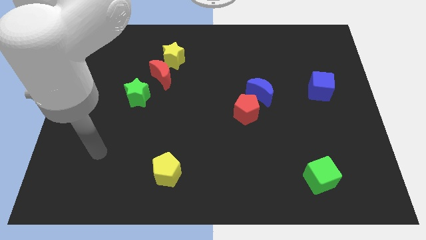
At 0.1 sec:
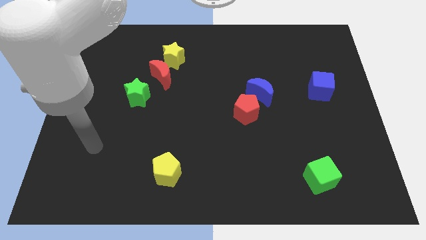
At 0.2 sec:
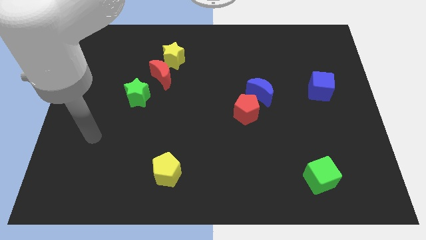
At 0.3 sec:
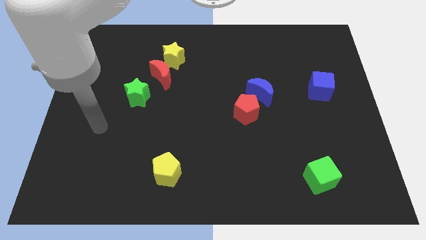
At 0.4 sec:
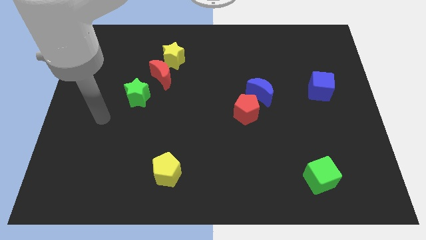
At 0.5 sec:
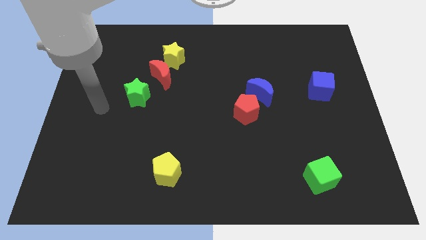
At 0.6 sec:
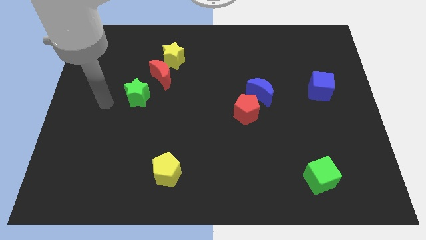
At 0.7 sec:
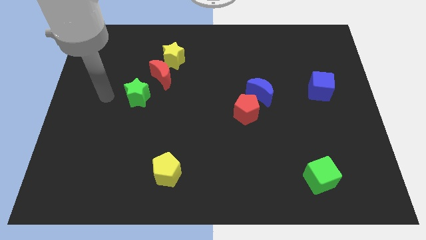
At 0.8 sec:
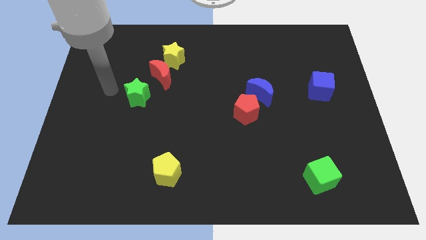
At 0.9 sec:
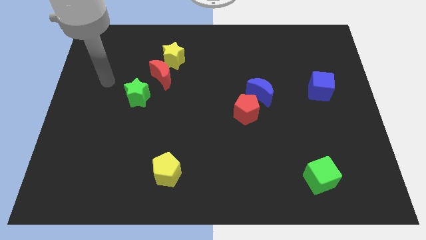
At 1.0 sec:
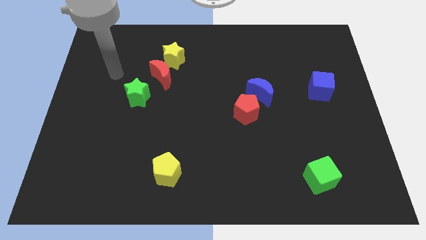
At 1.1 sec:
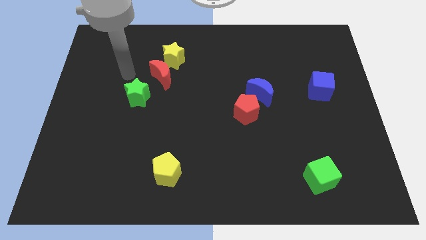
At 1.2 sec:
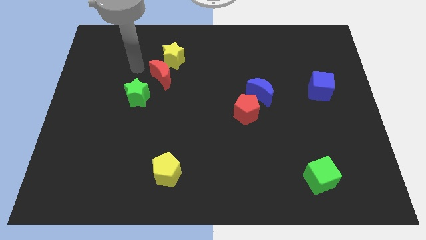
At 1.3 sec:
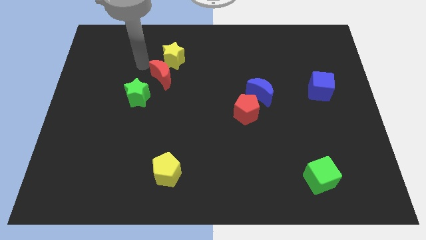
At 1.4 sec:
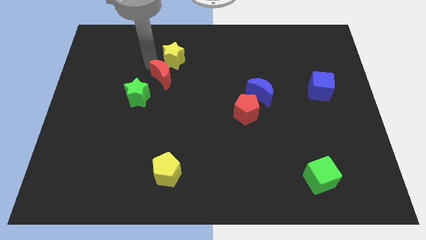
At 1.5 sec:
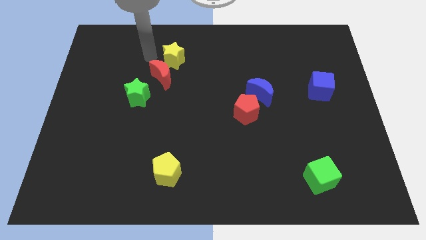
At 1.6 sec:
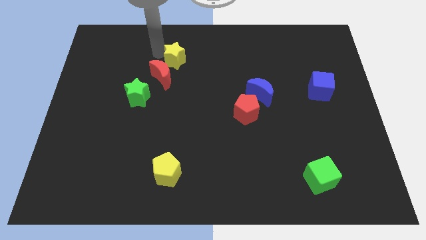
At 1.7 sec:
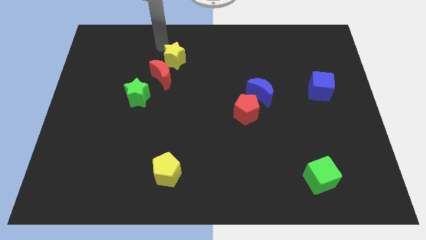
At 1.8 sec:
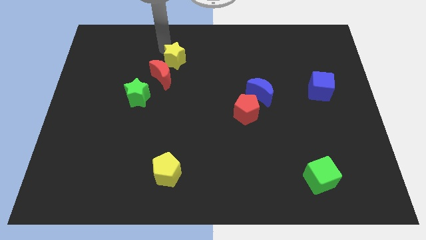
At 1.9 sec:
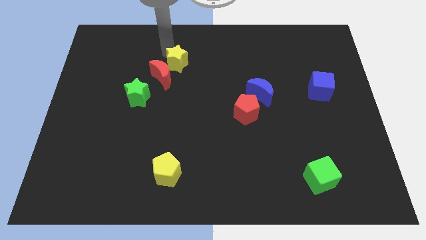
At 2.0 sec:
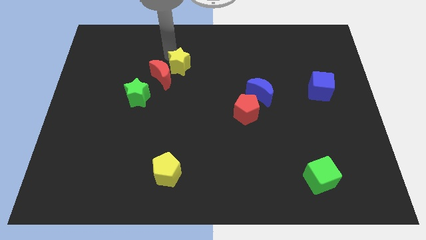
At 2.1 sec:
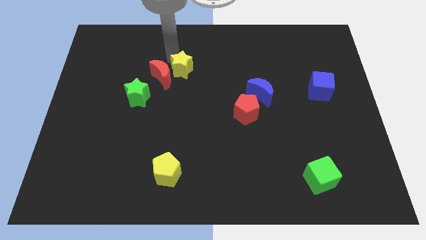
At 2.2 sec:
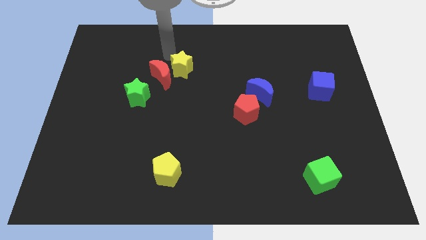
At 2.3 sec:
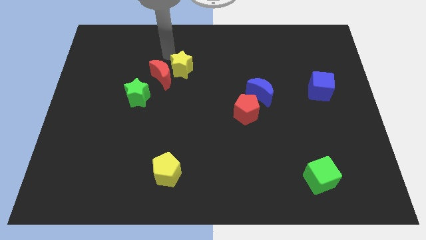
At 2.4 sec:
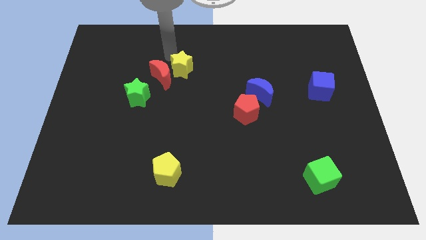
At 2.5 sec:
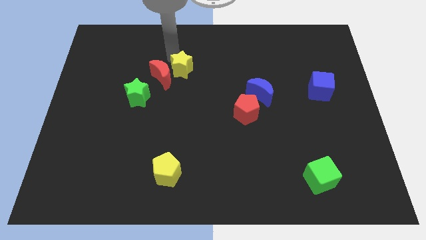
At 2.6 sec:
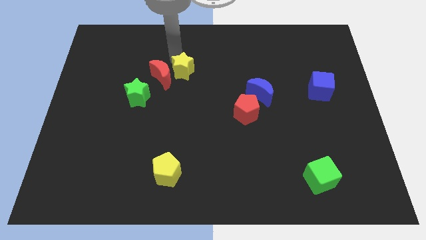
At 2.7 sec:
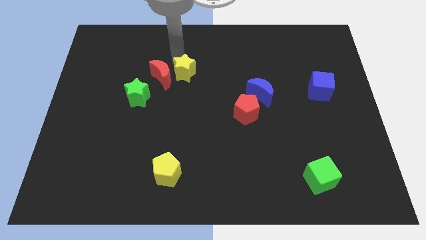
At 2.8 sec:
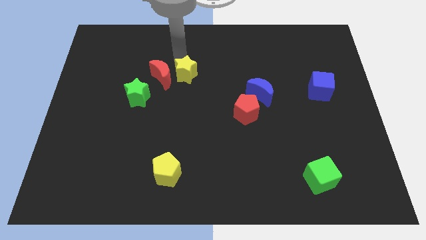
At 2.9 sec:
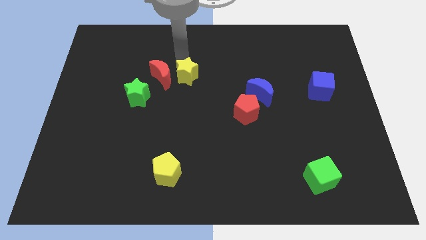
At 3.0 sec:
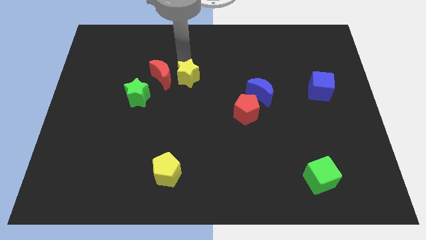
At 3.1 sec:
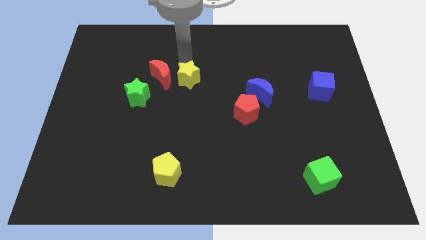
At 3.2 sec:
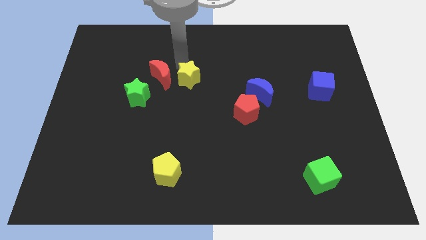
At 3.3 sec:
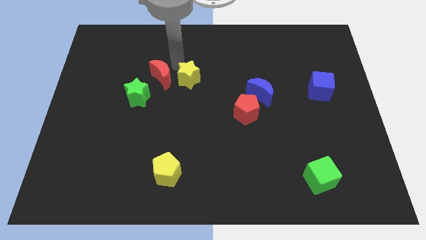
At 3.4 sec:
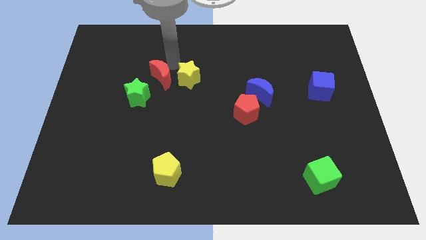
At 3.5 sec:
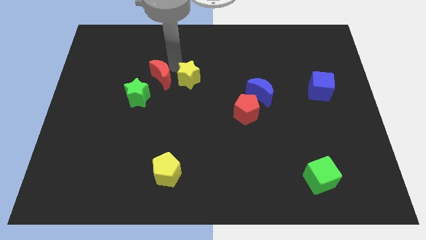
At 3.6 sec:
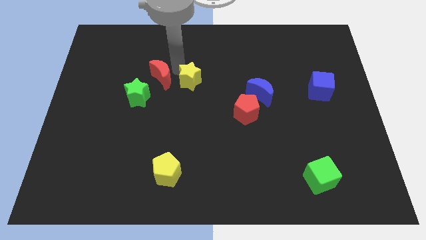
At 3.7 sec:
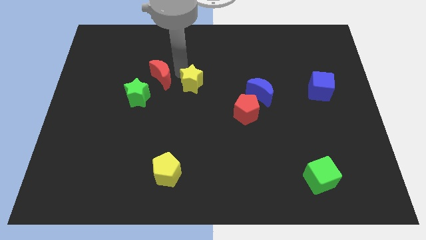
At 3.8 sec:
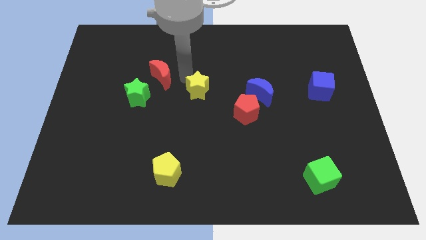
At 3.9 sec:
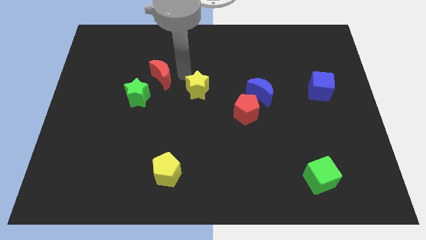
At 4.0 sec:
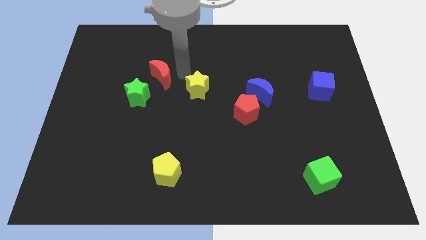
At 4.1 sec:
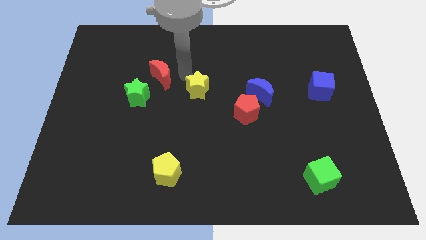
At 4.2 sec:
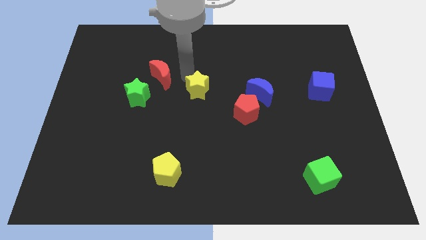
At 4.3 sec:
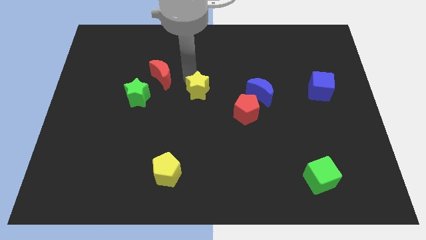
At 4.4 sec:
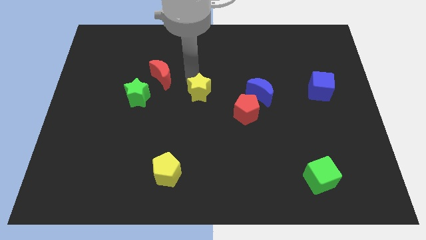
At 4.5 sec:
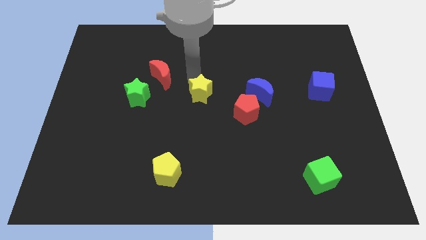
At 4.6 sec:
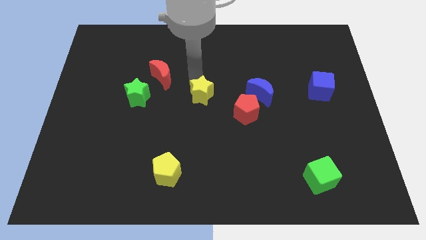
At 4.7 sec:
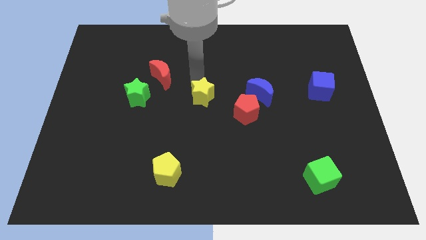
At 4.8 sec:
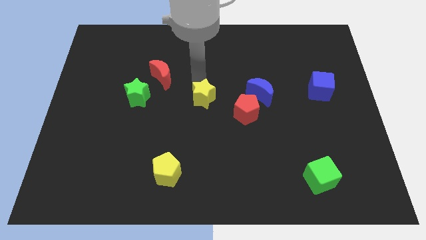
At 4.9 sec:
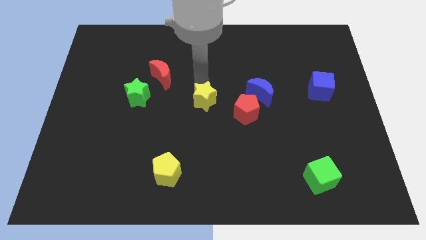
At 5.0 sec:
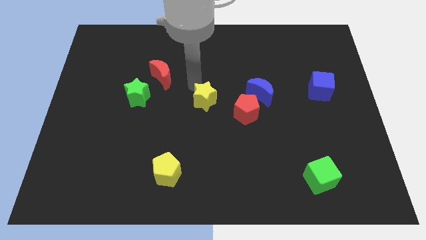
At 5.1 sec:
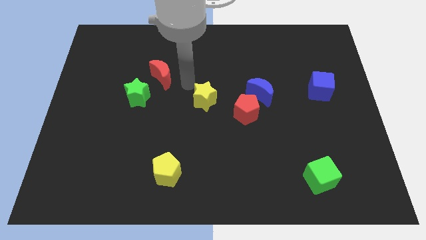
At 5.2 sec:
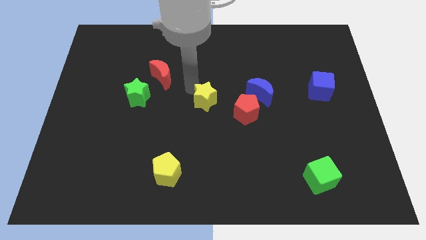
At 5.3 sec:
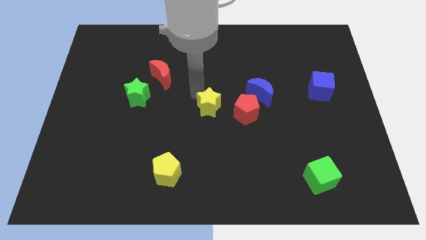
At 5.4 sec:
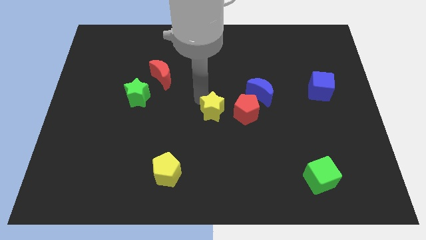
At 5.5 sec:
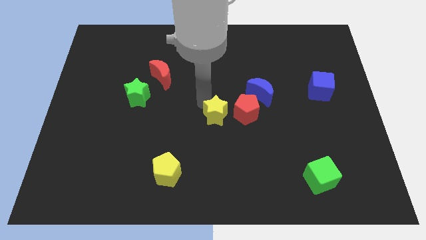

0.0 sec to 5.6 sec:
push the yellow star down and right

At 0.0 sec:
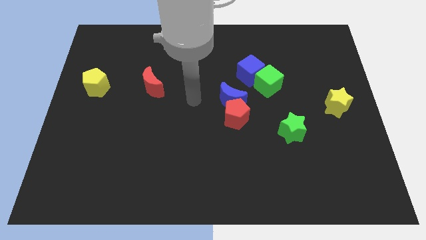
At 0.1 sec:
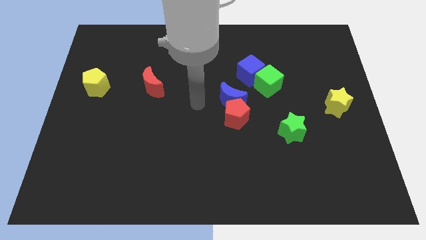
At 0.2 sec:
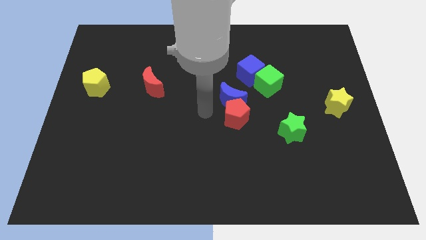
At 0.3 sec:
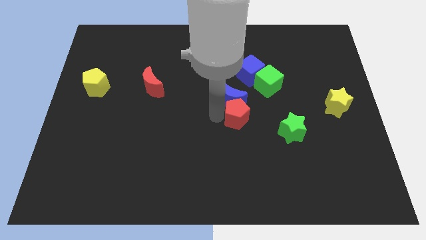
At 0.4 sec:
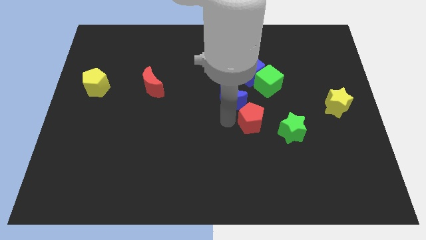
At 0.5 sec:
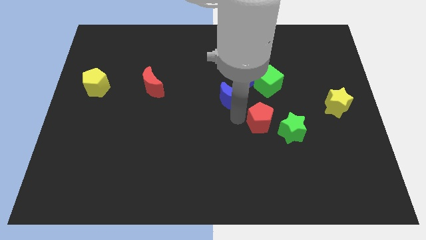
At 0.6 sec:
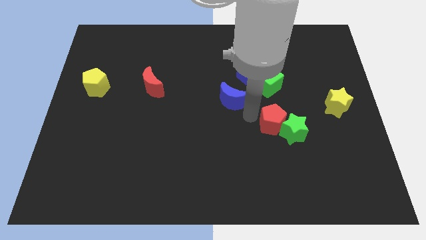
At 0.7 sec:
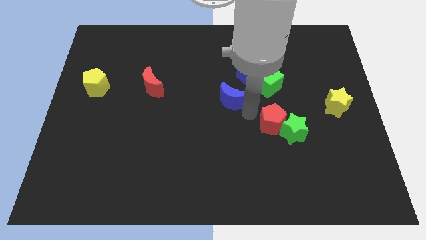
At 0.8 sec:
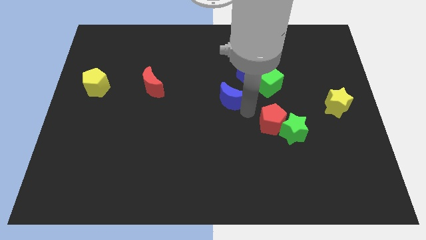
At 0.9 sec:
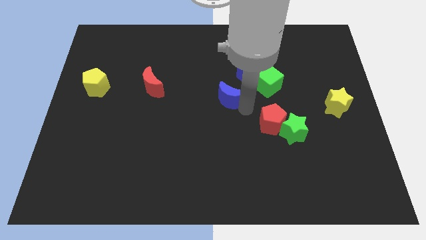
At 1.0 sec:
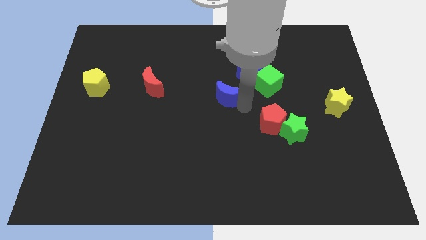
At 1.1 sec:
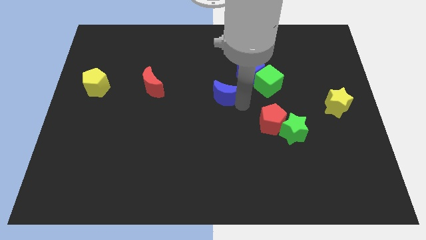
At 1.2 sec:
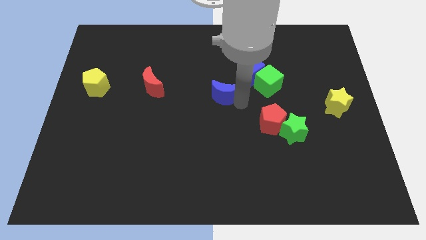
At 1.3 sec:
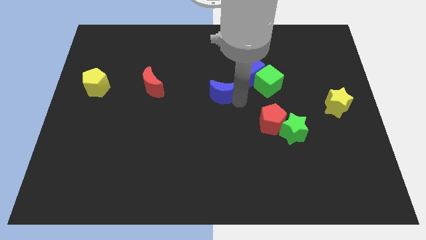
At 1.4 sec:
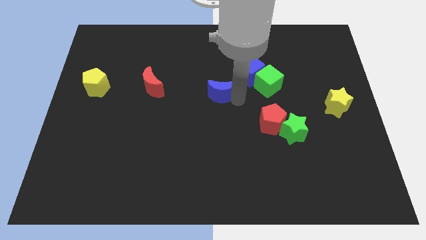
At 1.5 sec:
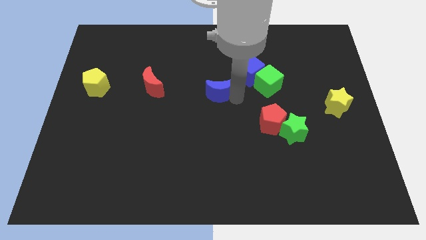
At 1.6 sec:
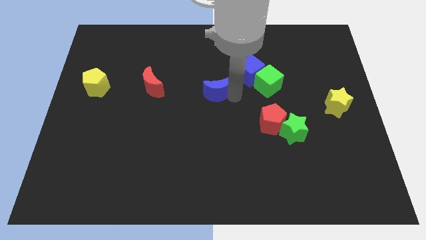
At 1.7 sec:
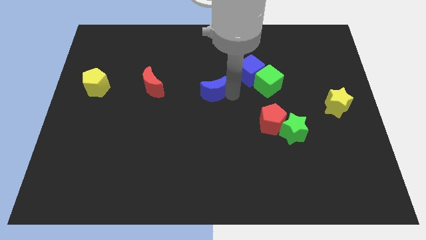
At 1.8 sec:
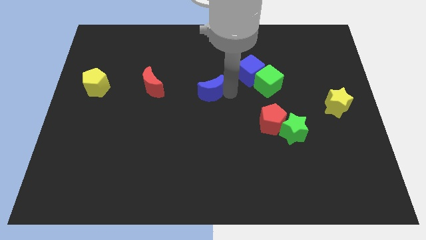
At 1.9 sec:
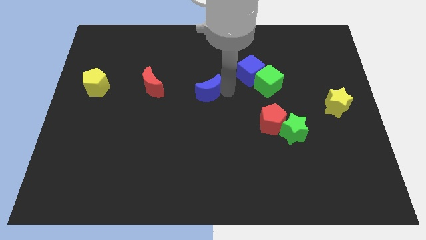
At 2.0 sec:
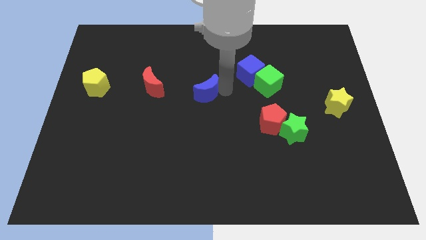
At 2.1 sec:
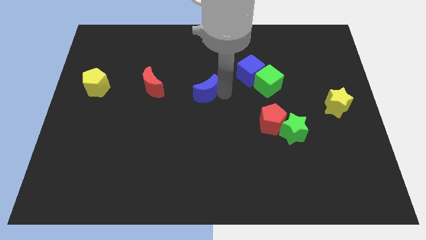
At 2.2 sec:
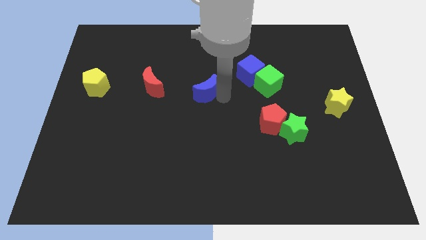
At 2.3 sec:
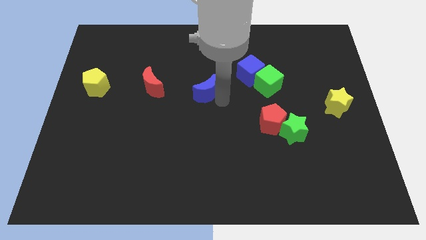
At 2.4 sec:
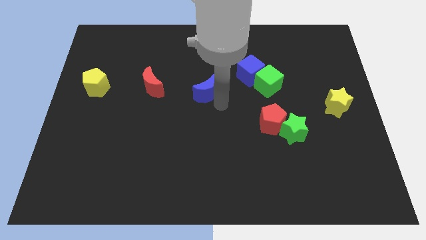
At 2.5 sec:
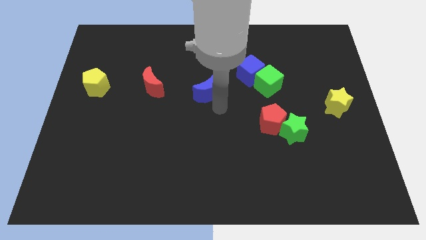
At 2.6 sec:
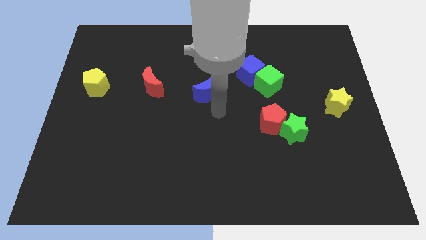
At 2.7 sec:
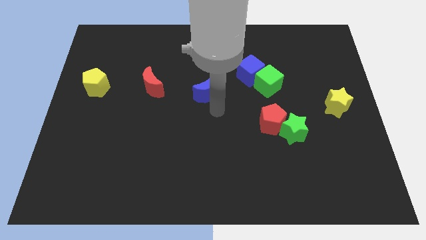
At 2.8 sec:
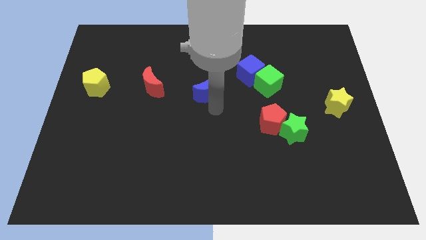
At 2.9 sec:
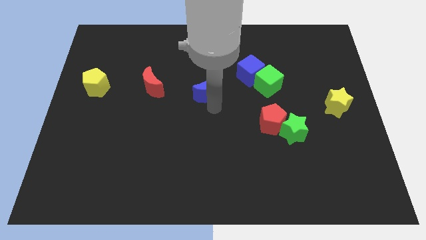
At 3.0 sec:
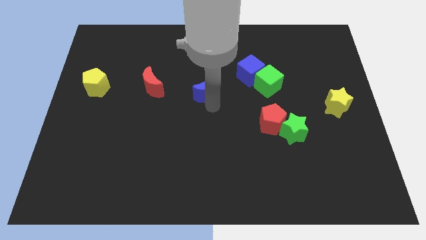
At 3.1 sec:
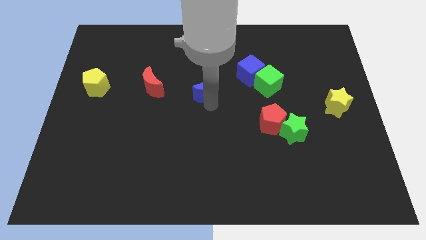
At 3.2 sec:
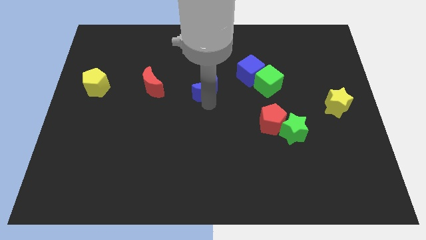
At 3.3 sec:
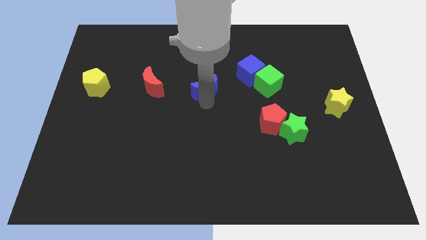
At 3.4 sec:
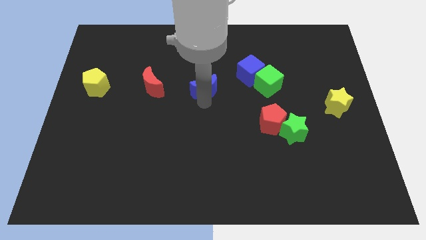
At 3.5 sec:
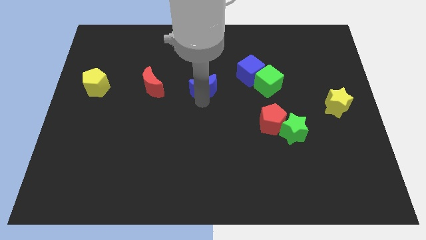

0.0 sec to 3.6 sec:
slightly slide the blue moon diagonally upwards and left
